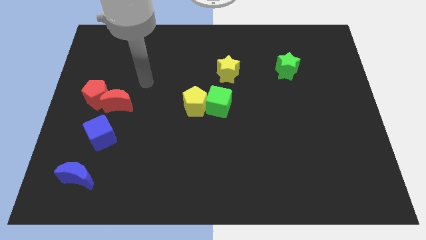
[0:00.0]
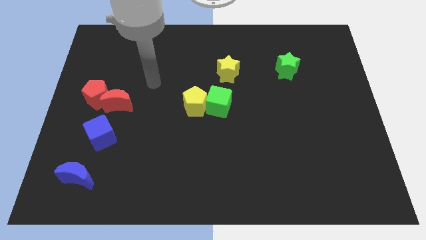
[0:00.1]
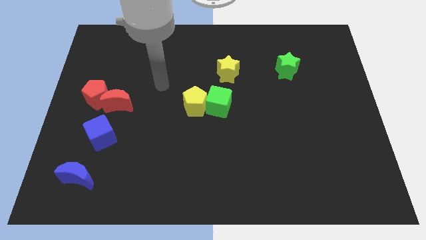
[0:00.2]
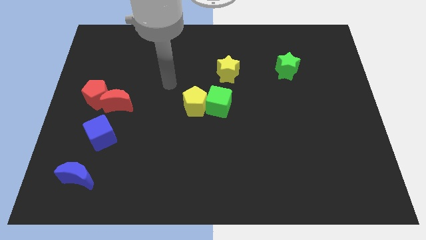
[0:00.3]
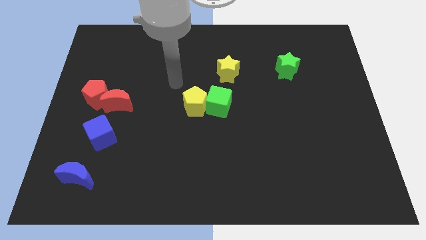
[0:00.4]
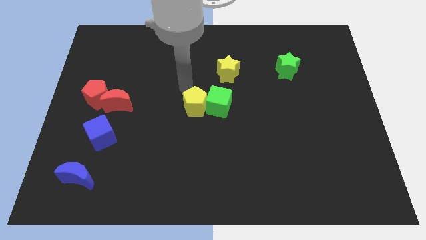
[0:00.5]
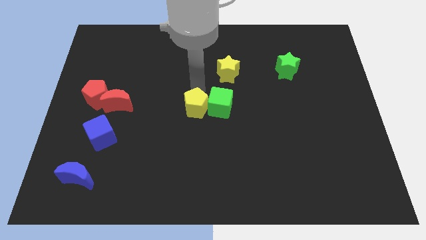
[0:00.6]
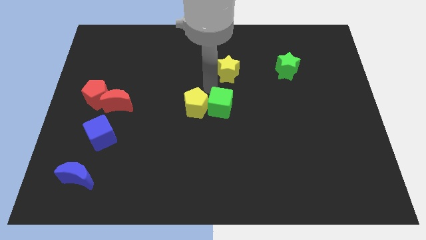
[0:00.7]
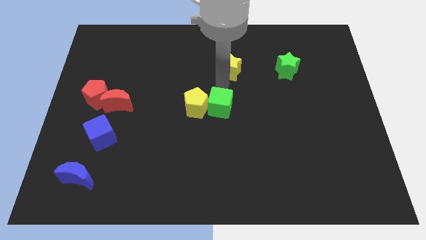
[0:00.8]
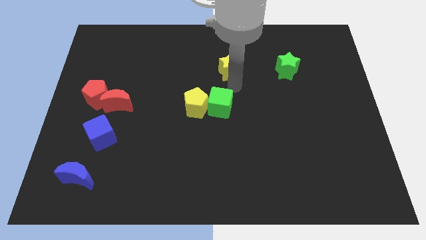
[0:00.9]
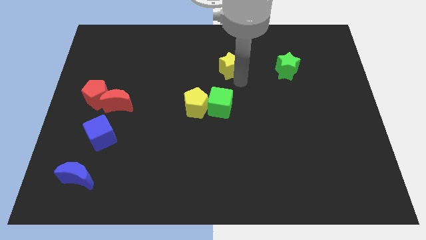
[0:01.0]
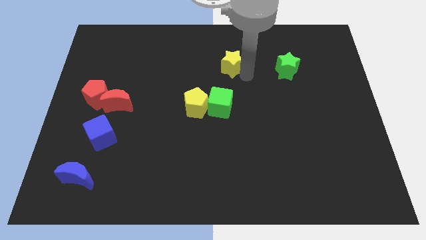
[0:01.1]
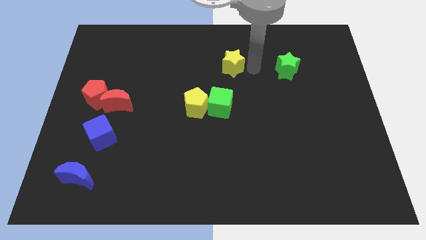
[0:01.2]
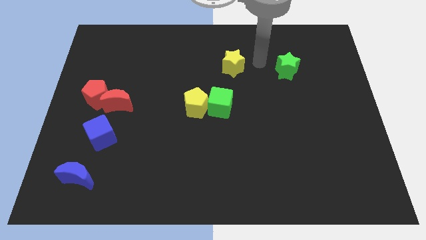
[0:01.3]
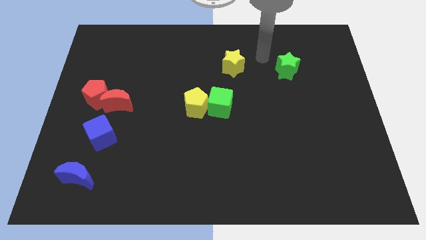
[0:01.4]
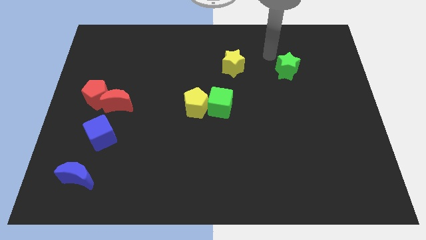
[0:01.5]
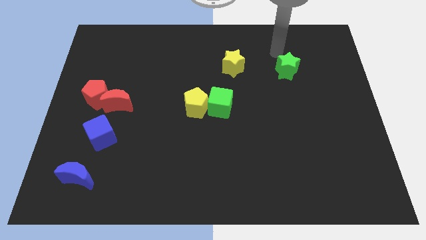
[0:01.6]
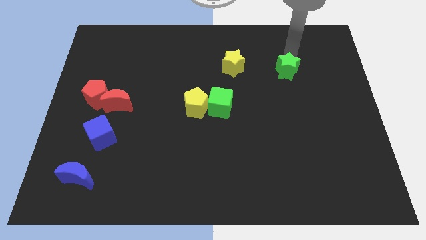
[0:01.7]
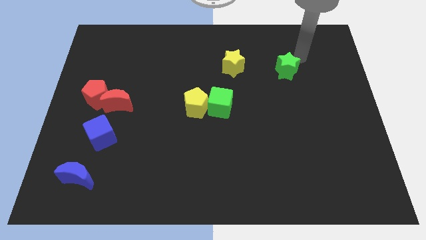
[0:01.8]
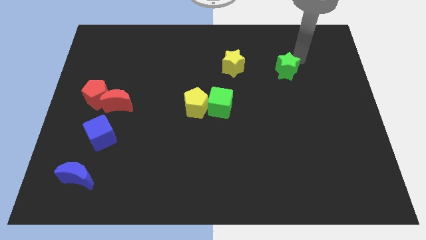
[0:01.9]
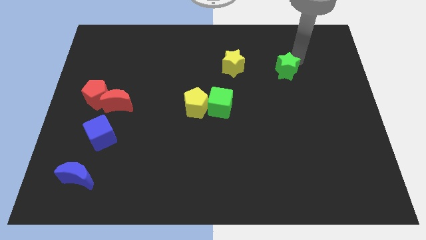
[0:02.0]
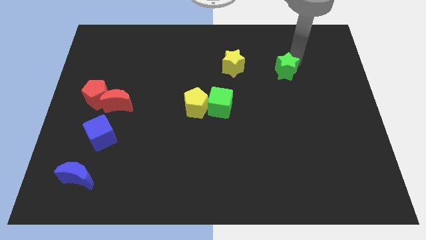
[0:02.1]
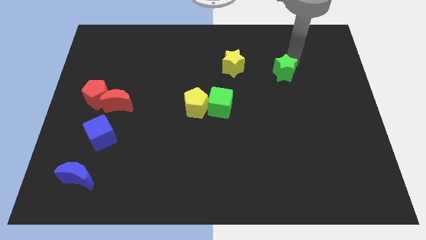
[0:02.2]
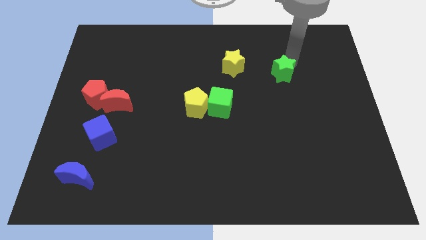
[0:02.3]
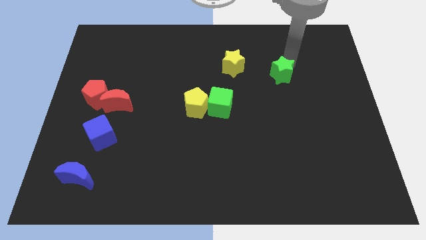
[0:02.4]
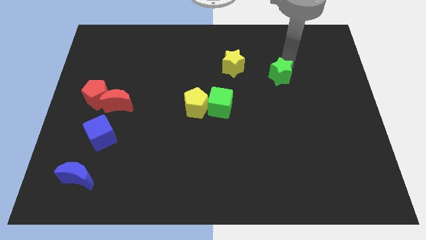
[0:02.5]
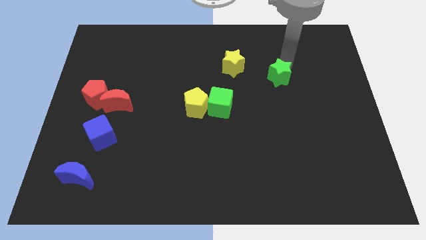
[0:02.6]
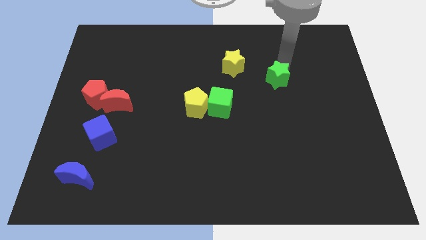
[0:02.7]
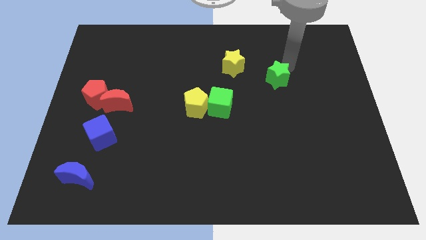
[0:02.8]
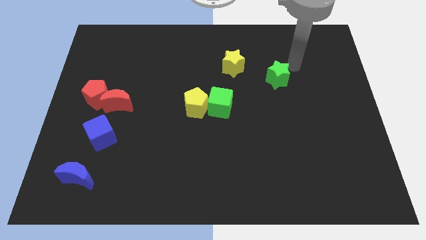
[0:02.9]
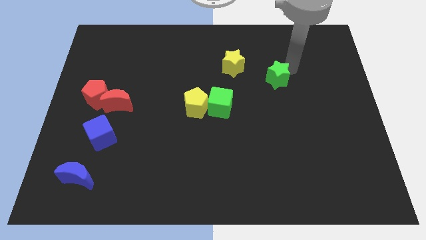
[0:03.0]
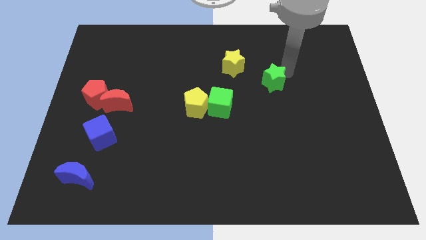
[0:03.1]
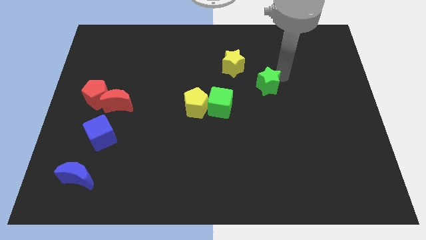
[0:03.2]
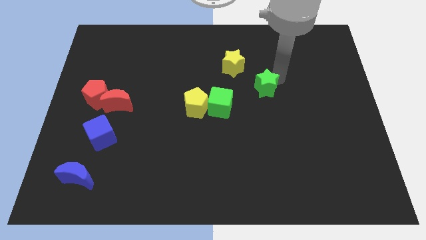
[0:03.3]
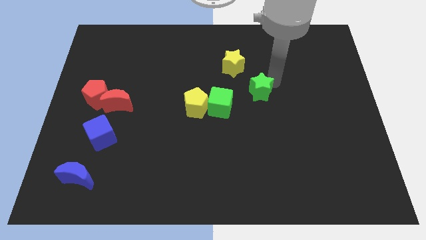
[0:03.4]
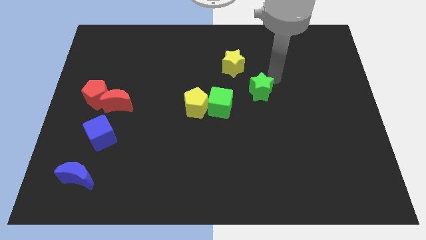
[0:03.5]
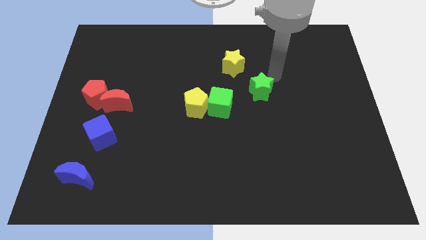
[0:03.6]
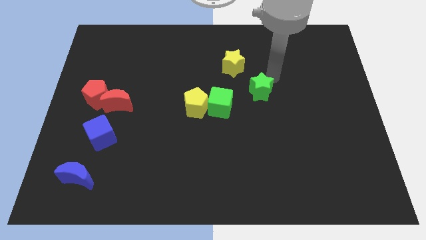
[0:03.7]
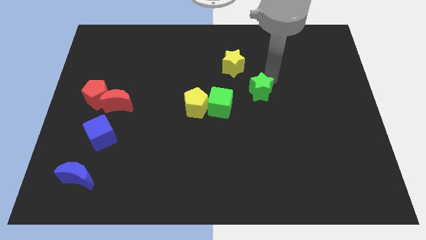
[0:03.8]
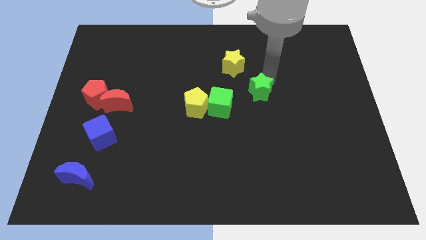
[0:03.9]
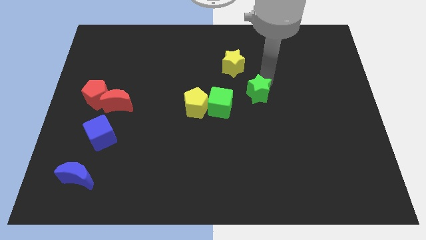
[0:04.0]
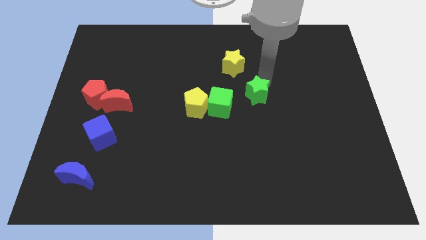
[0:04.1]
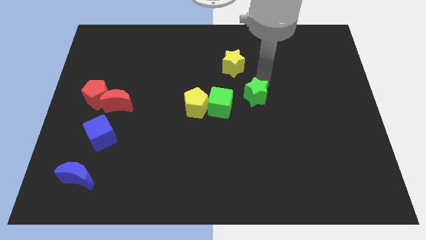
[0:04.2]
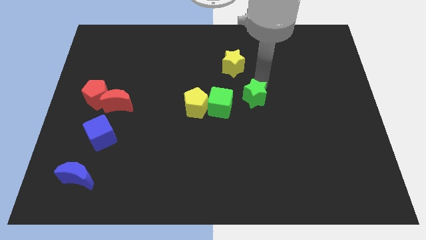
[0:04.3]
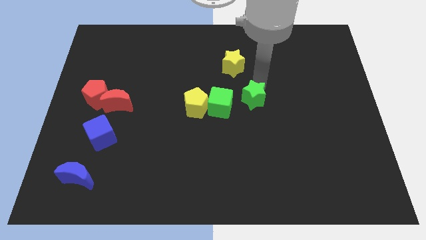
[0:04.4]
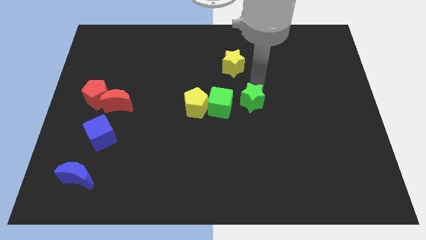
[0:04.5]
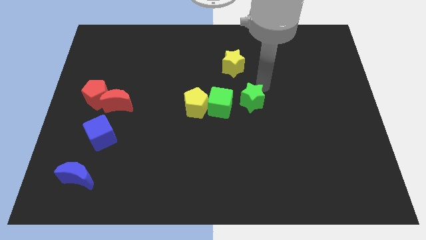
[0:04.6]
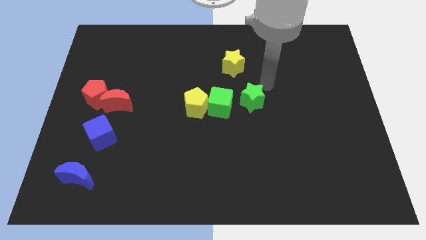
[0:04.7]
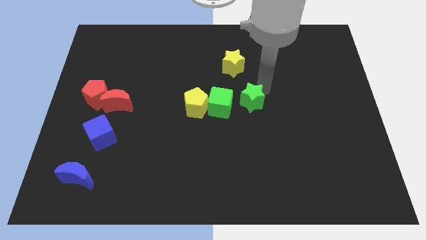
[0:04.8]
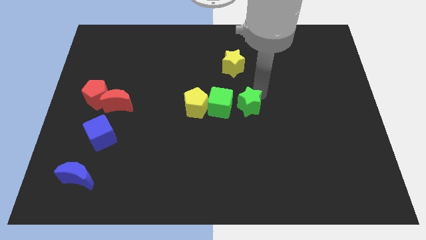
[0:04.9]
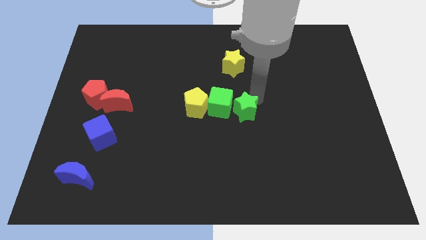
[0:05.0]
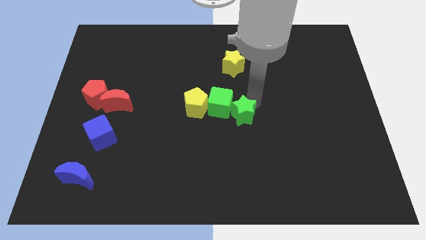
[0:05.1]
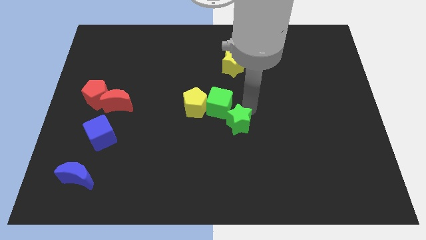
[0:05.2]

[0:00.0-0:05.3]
slide the green star below the green cube
